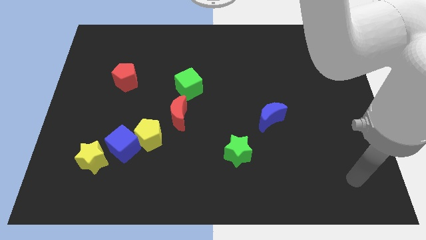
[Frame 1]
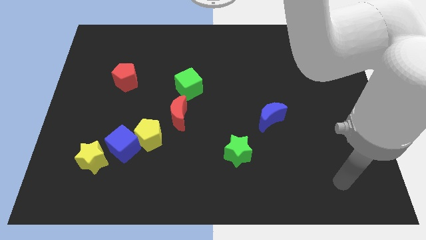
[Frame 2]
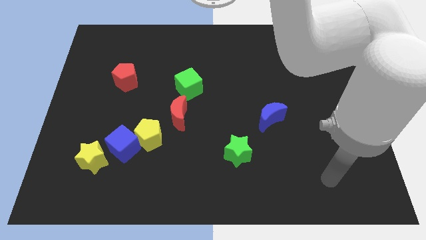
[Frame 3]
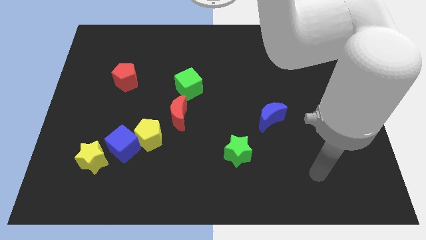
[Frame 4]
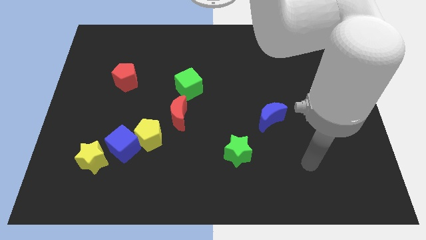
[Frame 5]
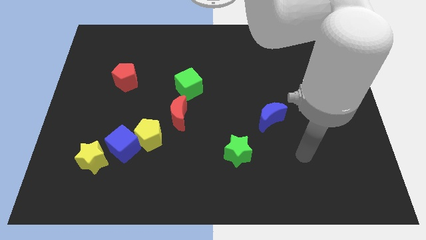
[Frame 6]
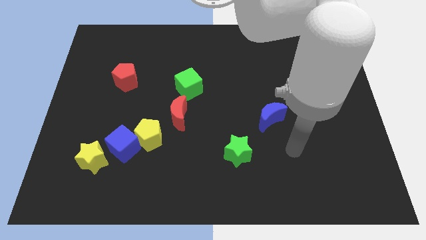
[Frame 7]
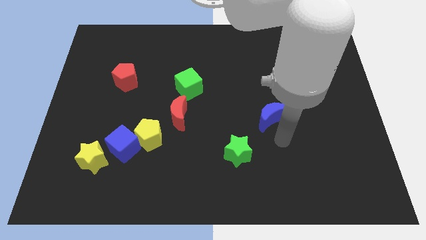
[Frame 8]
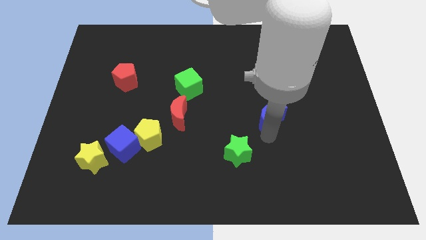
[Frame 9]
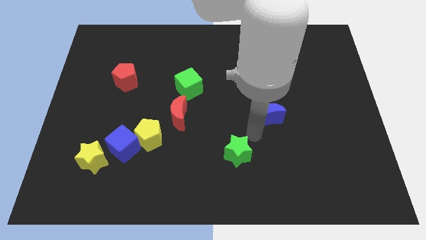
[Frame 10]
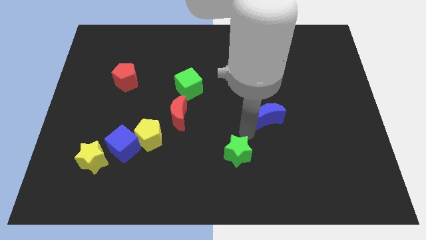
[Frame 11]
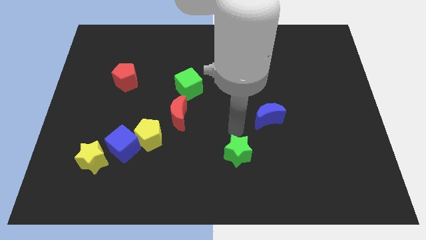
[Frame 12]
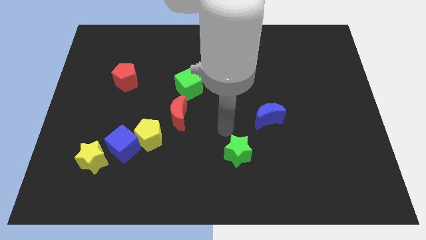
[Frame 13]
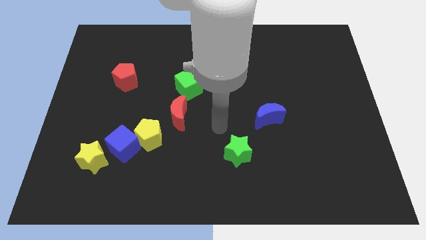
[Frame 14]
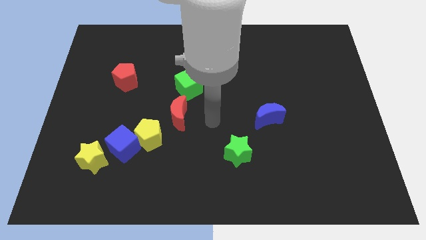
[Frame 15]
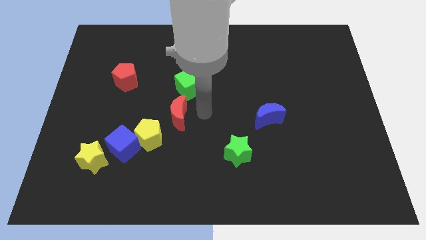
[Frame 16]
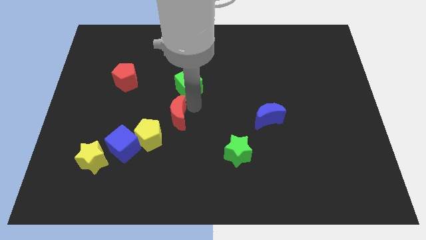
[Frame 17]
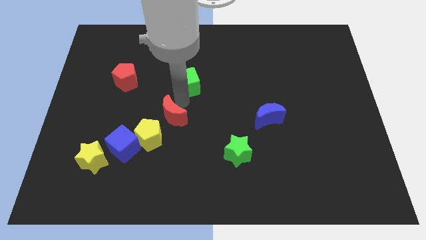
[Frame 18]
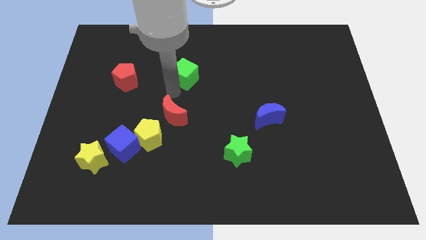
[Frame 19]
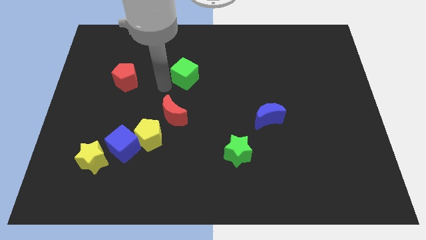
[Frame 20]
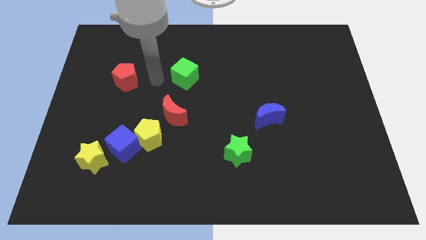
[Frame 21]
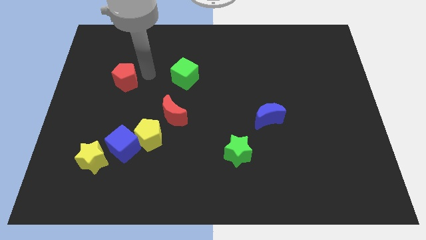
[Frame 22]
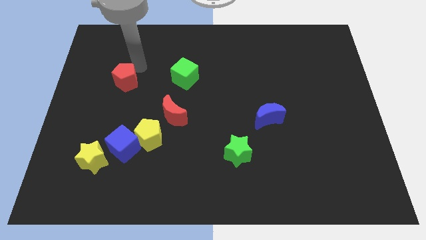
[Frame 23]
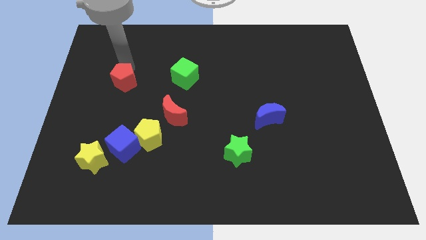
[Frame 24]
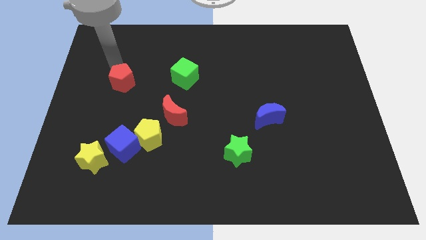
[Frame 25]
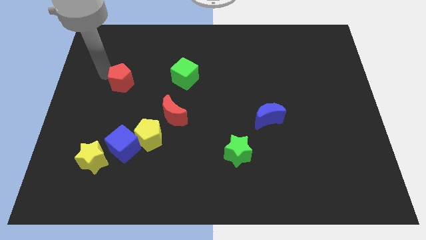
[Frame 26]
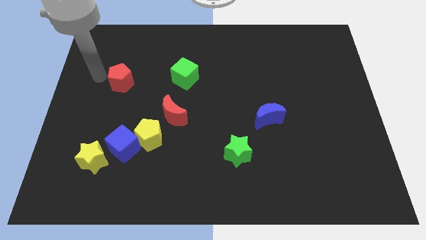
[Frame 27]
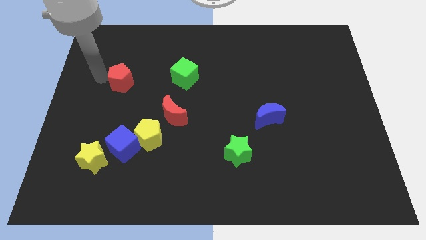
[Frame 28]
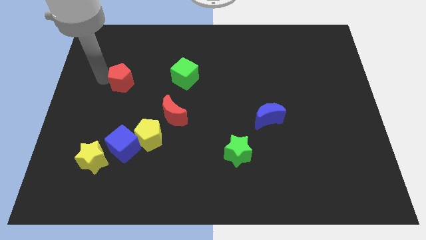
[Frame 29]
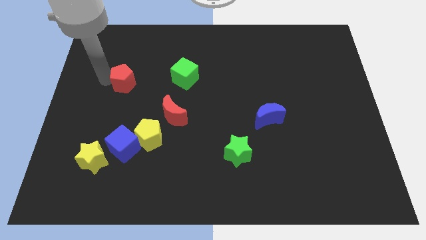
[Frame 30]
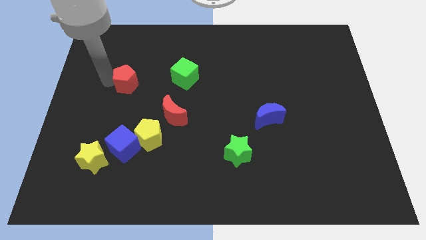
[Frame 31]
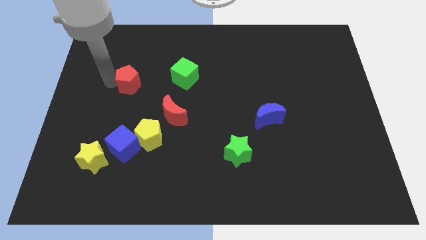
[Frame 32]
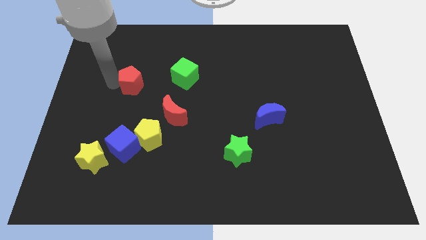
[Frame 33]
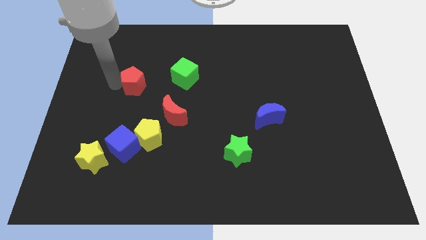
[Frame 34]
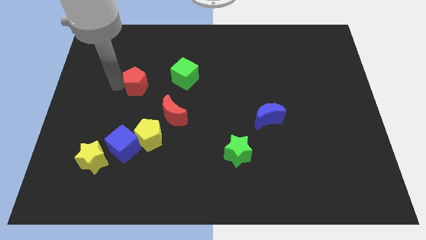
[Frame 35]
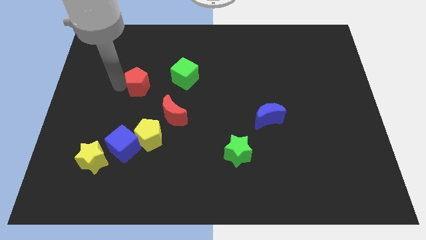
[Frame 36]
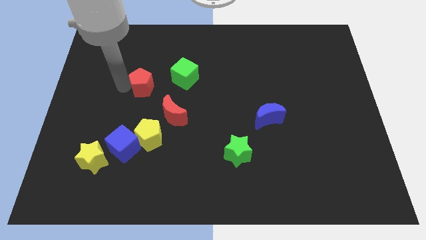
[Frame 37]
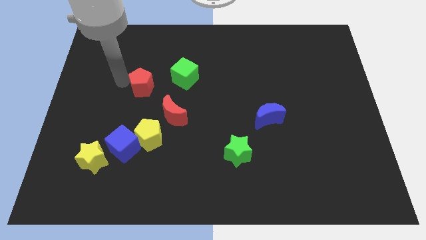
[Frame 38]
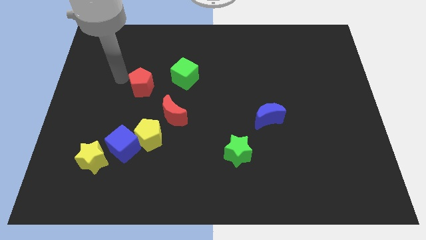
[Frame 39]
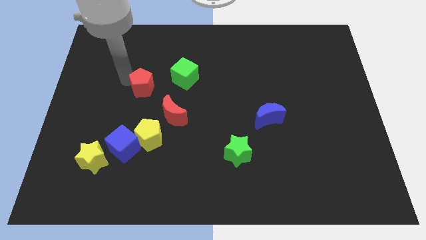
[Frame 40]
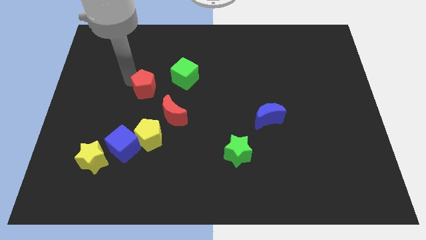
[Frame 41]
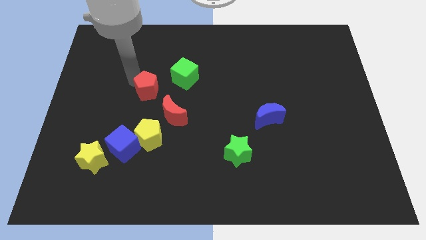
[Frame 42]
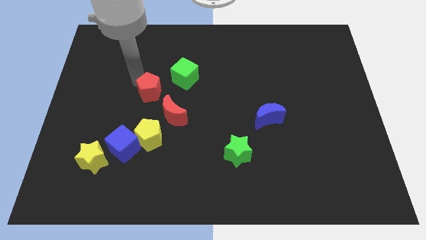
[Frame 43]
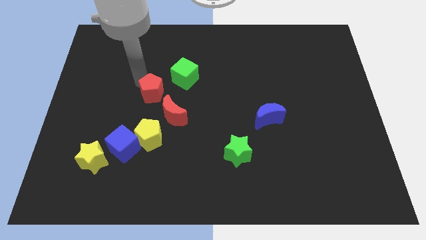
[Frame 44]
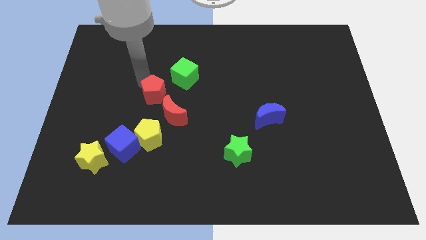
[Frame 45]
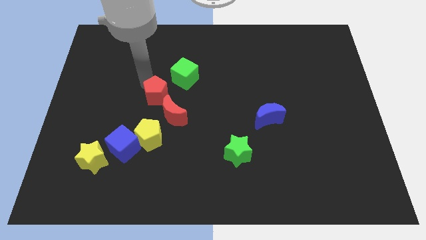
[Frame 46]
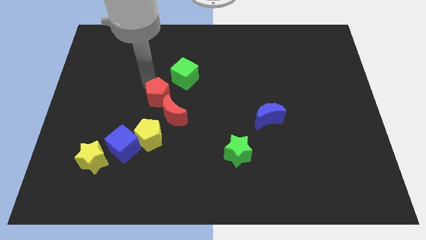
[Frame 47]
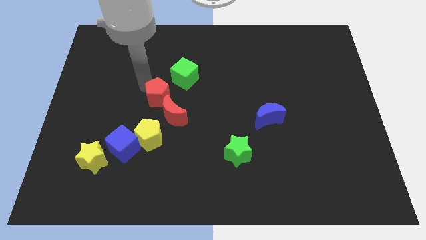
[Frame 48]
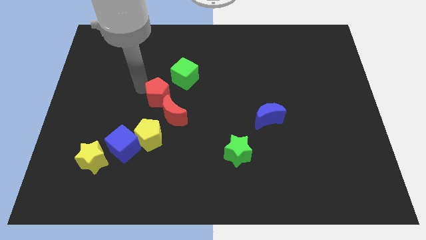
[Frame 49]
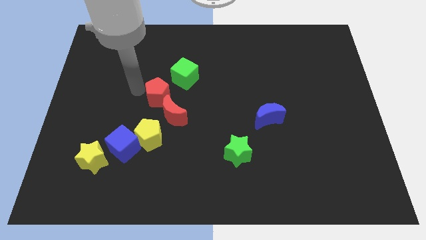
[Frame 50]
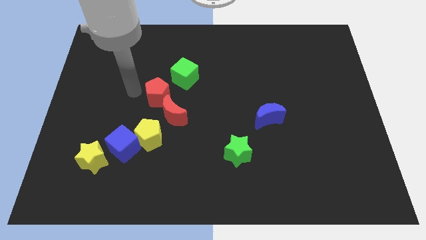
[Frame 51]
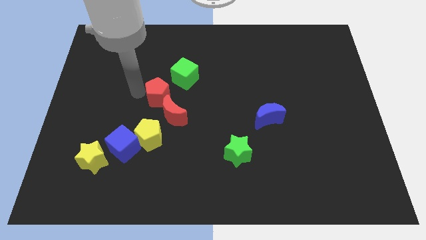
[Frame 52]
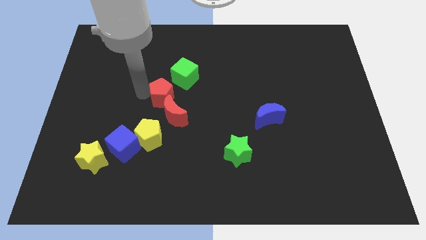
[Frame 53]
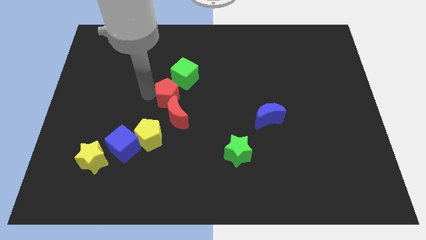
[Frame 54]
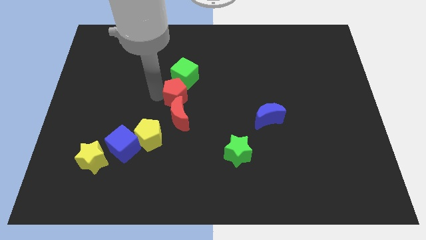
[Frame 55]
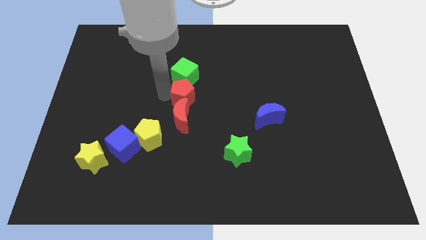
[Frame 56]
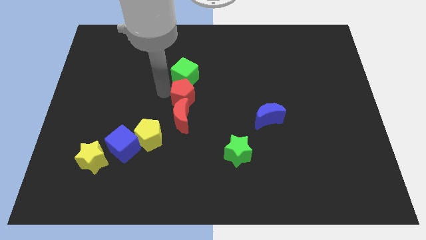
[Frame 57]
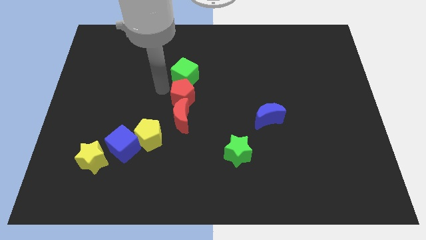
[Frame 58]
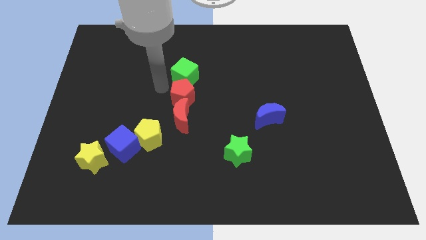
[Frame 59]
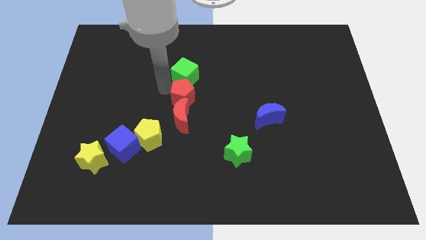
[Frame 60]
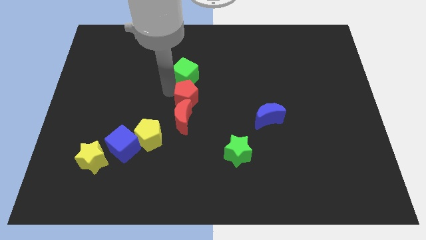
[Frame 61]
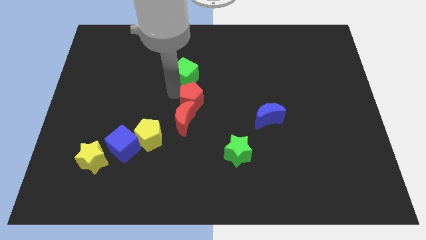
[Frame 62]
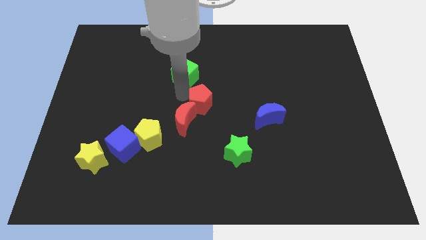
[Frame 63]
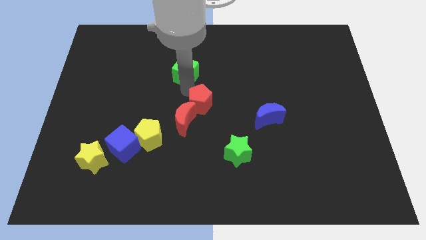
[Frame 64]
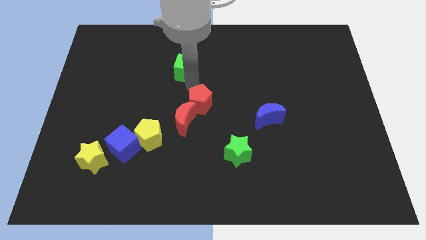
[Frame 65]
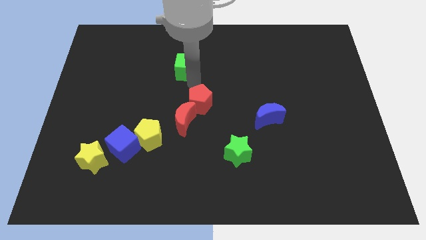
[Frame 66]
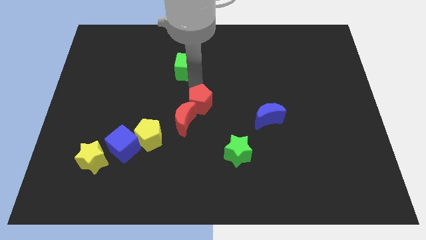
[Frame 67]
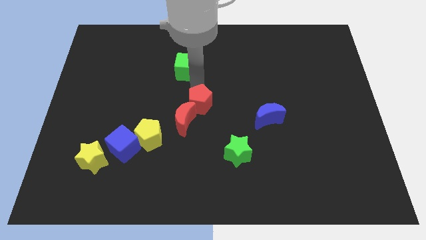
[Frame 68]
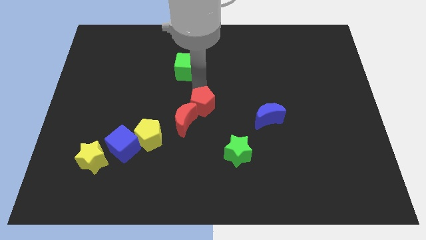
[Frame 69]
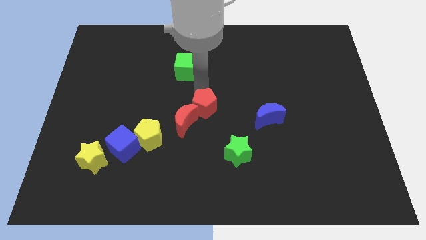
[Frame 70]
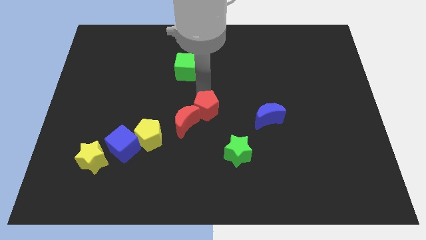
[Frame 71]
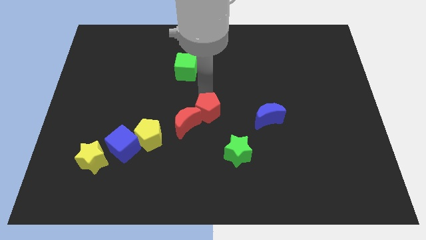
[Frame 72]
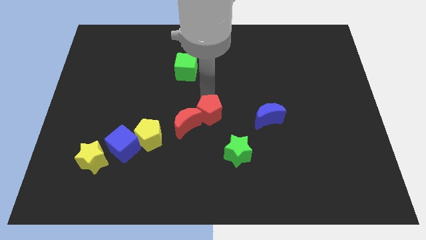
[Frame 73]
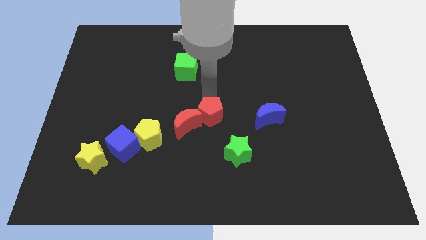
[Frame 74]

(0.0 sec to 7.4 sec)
push the red pentagon downwards and right diagonally

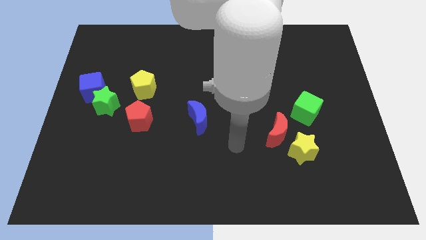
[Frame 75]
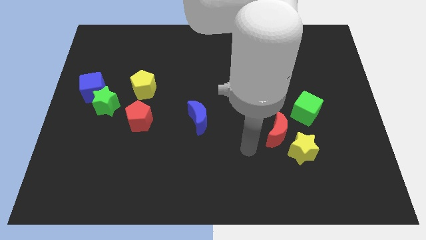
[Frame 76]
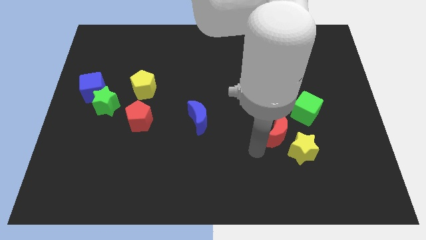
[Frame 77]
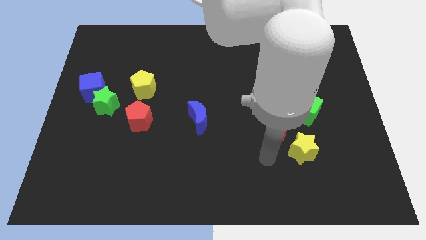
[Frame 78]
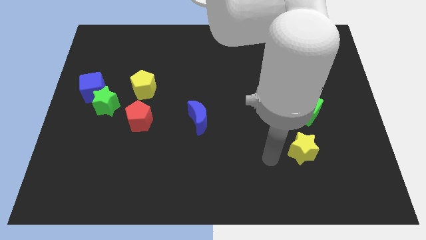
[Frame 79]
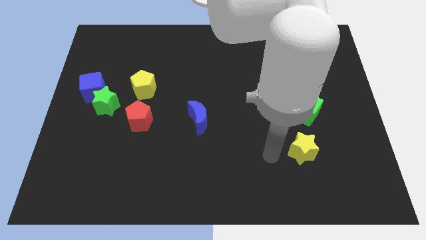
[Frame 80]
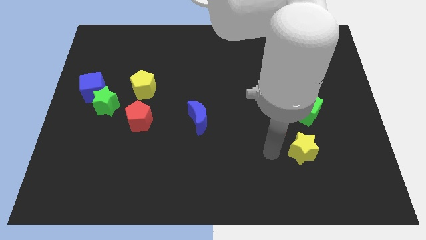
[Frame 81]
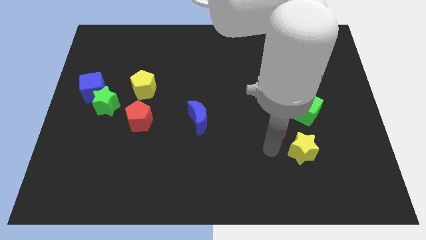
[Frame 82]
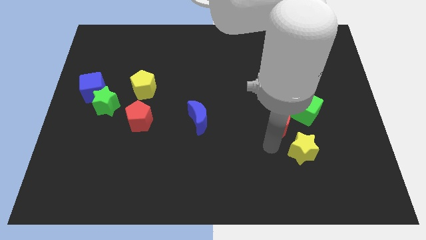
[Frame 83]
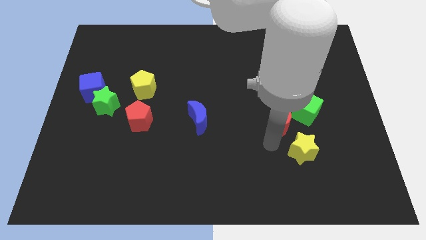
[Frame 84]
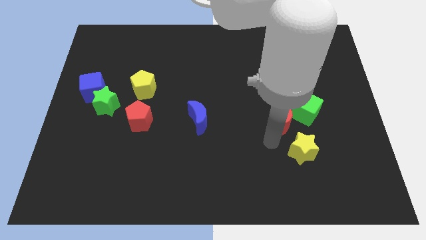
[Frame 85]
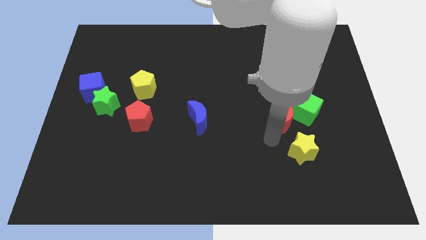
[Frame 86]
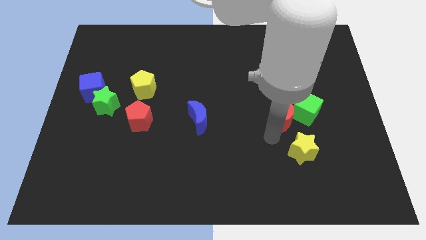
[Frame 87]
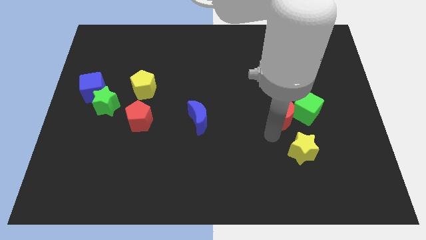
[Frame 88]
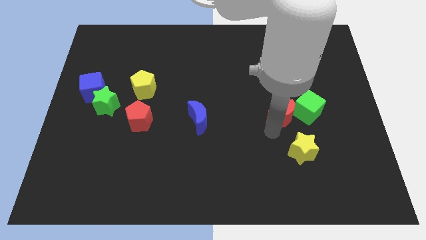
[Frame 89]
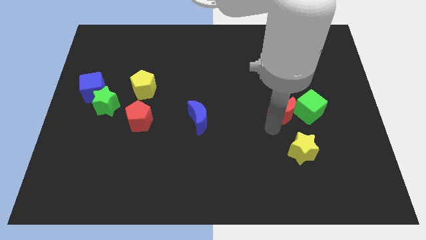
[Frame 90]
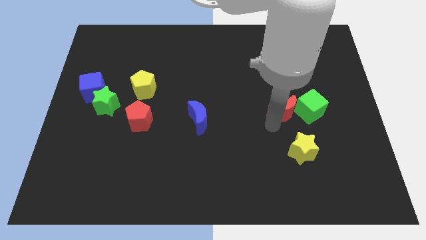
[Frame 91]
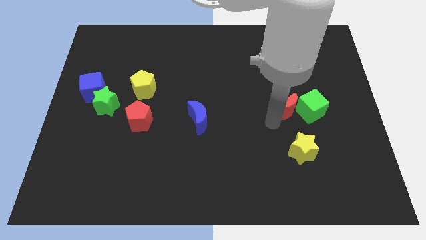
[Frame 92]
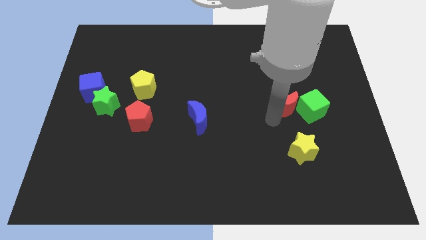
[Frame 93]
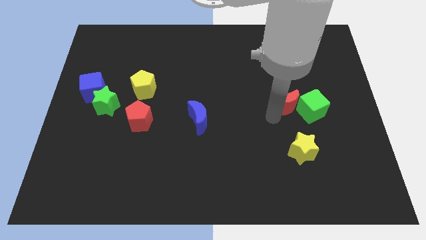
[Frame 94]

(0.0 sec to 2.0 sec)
push the red moon a bit diagonally upwards and to the right
